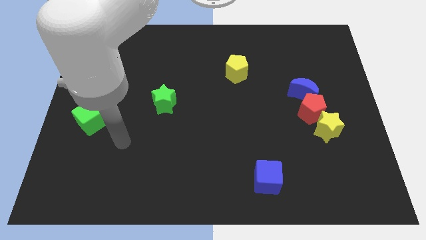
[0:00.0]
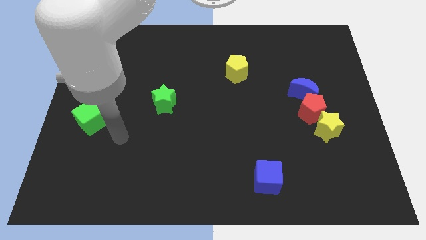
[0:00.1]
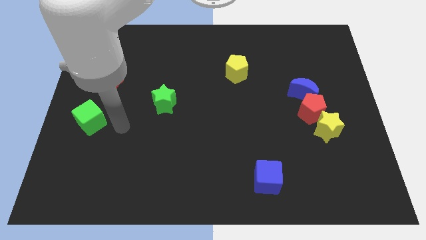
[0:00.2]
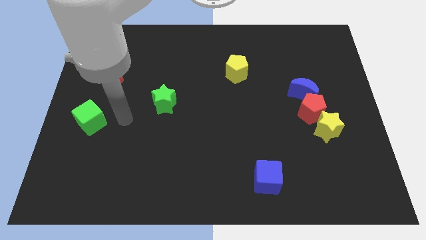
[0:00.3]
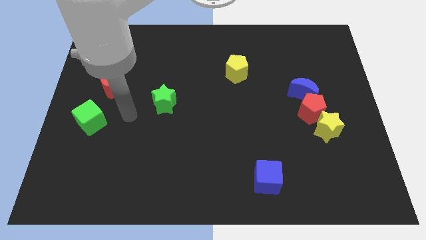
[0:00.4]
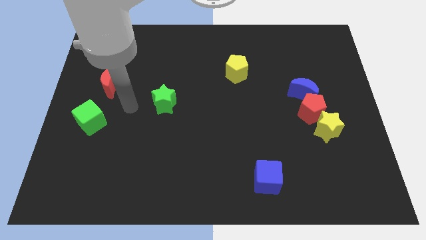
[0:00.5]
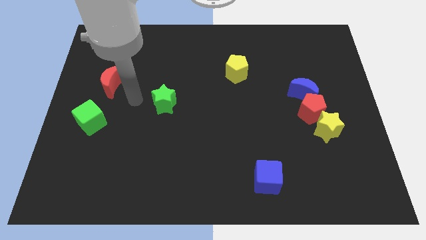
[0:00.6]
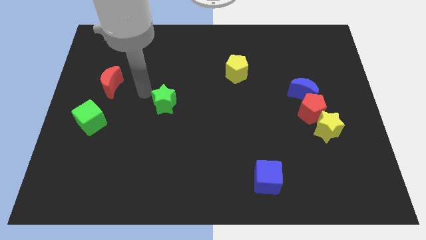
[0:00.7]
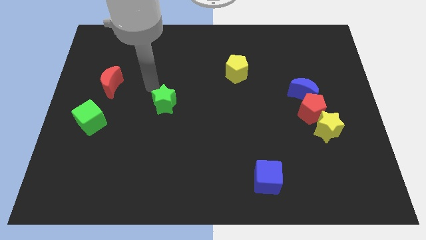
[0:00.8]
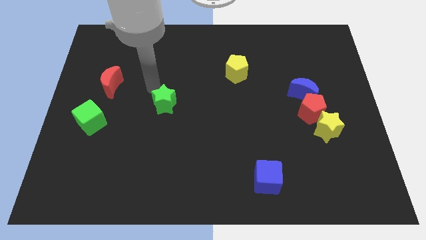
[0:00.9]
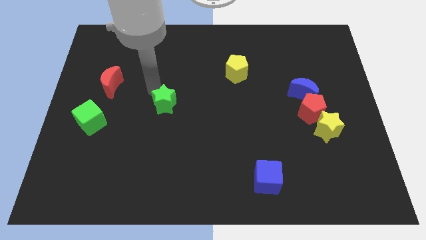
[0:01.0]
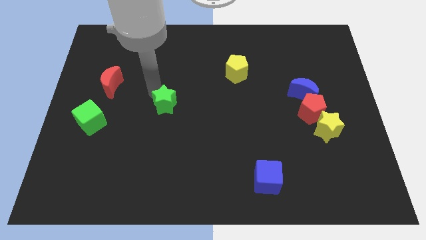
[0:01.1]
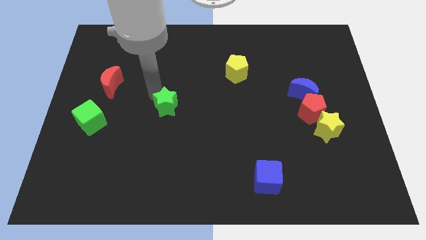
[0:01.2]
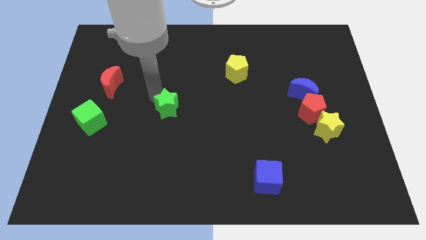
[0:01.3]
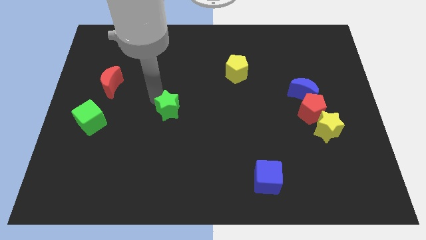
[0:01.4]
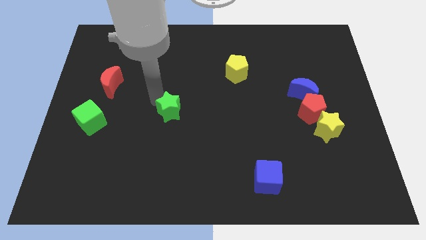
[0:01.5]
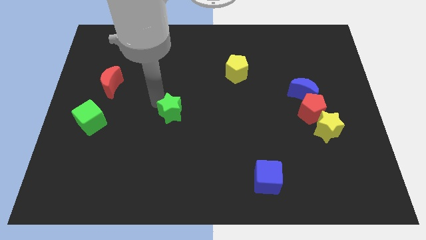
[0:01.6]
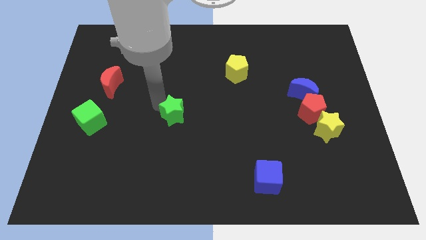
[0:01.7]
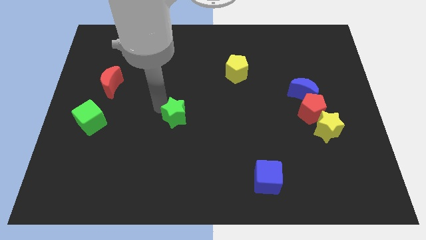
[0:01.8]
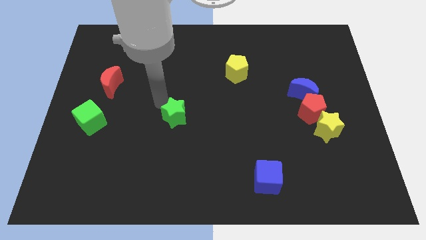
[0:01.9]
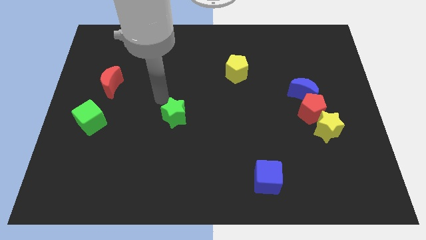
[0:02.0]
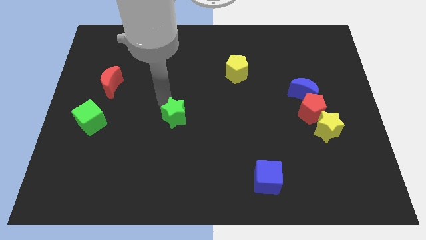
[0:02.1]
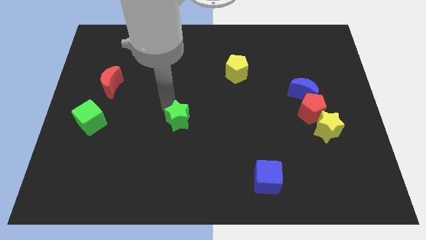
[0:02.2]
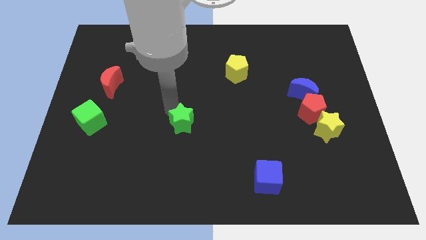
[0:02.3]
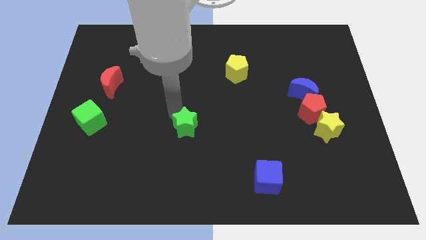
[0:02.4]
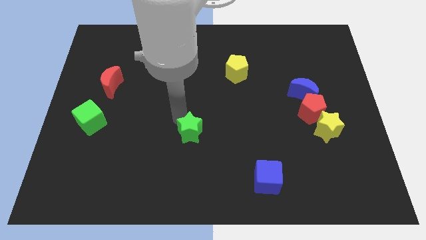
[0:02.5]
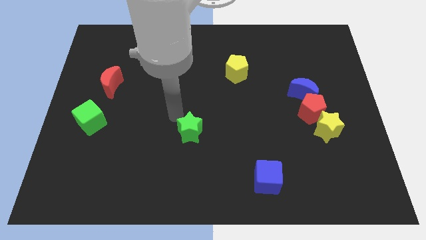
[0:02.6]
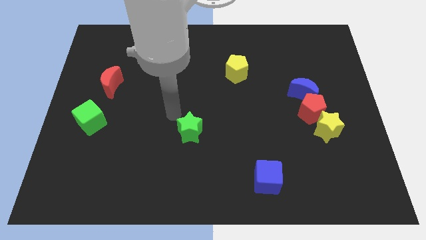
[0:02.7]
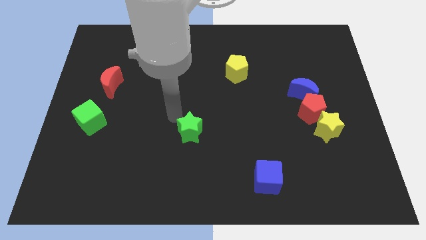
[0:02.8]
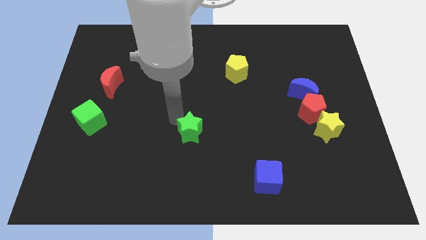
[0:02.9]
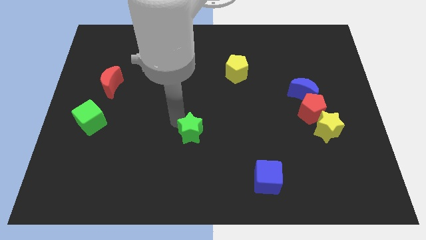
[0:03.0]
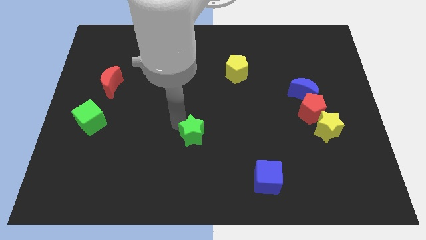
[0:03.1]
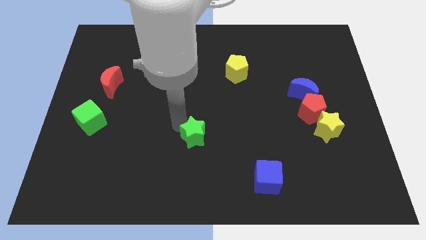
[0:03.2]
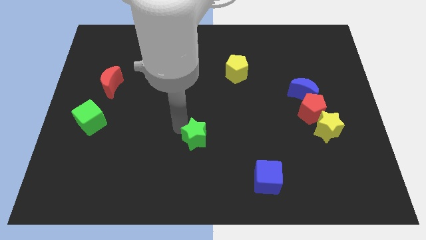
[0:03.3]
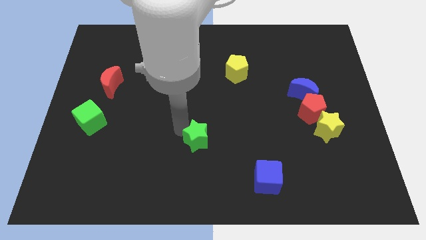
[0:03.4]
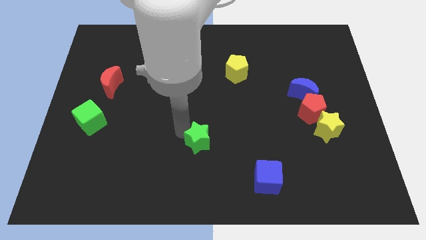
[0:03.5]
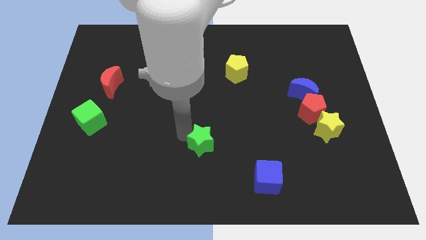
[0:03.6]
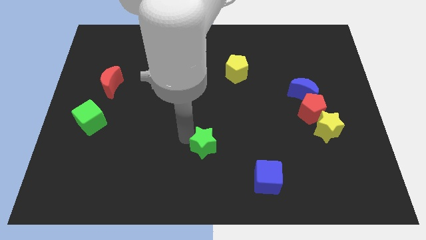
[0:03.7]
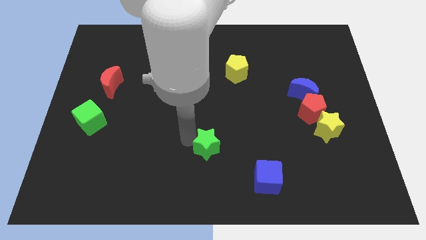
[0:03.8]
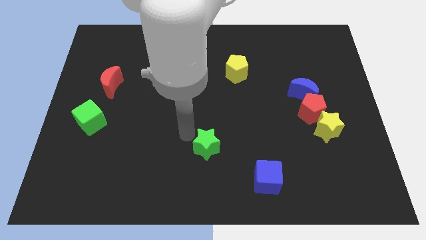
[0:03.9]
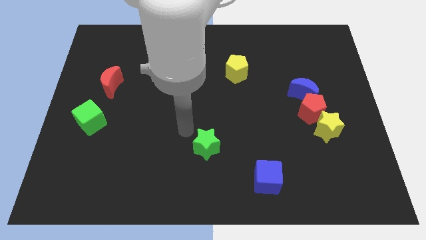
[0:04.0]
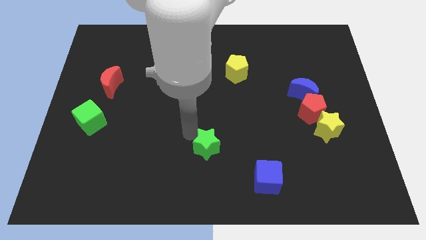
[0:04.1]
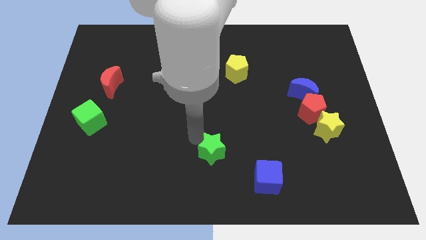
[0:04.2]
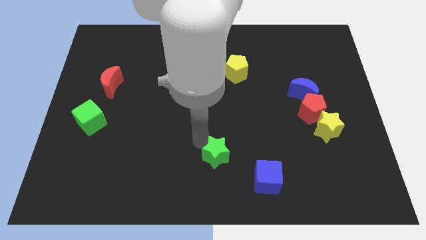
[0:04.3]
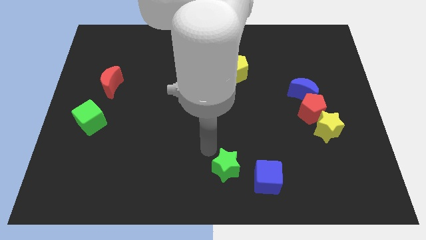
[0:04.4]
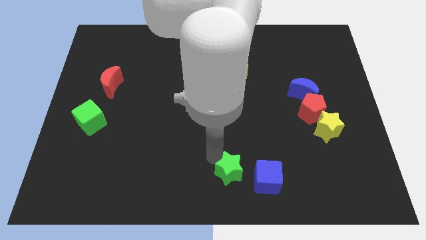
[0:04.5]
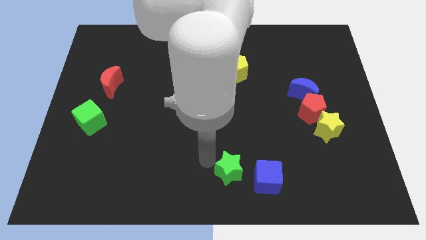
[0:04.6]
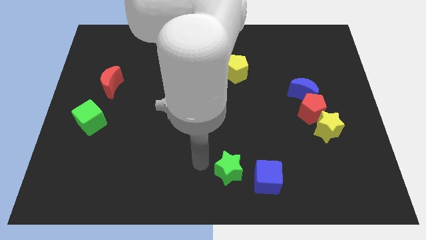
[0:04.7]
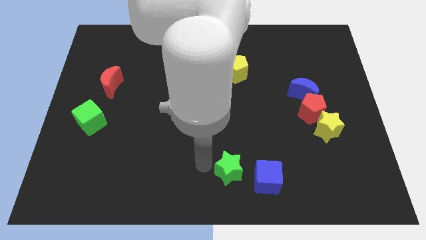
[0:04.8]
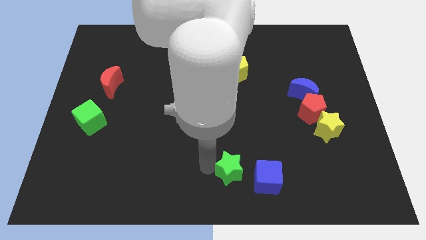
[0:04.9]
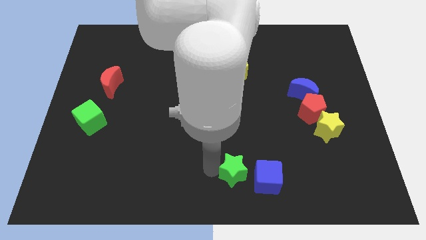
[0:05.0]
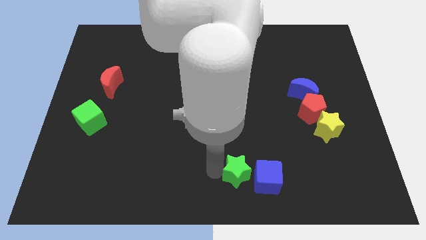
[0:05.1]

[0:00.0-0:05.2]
move the green star close to the blue cube
